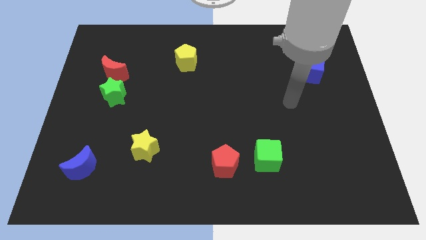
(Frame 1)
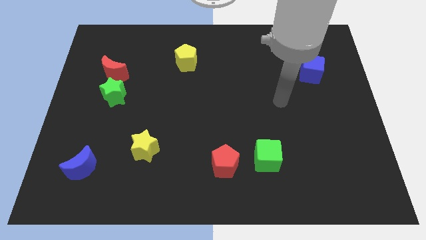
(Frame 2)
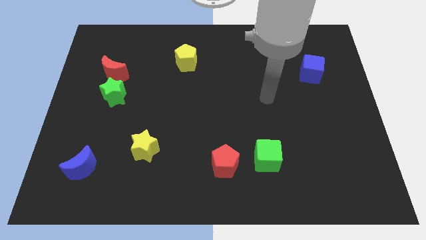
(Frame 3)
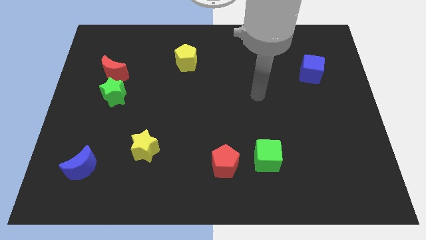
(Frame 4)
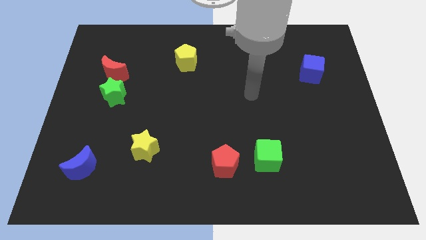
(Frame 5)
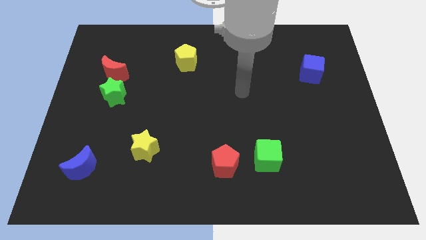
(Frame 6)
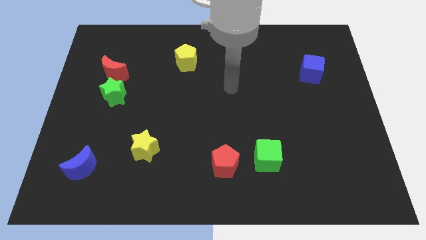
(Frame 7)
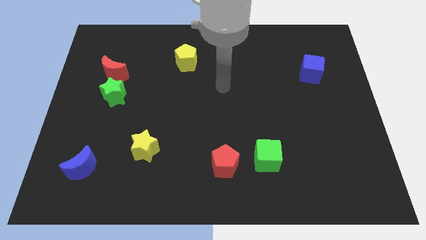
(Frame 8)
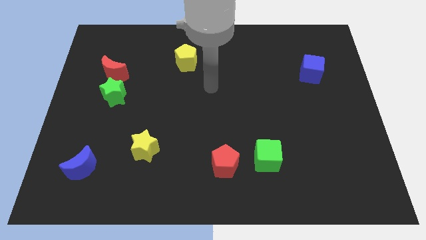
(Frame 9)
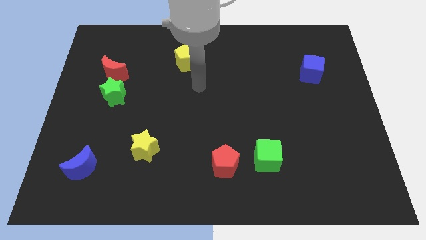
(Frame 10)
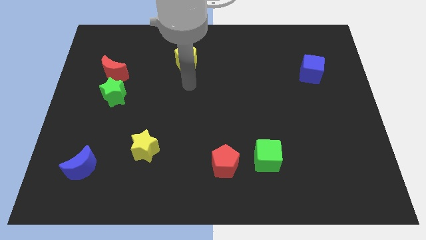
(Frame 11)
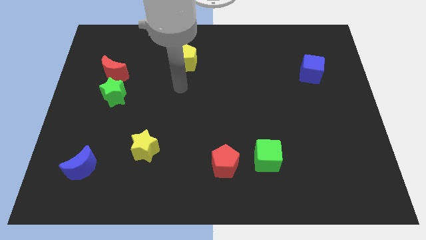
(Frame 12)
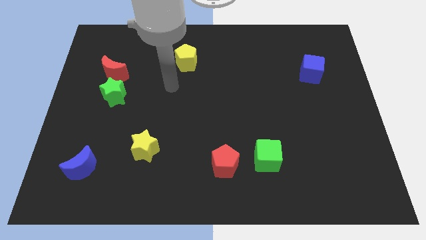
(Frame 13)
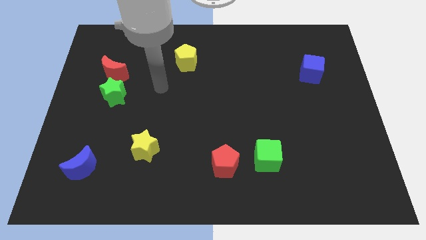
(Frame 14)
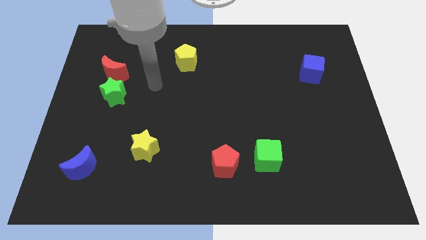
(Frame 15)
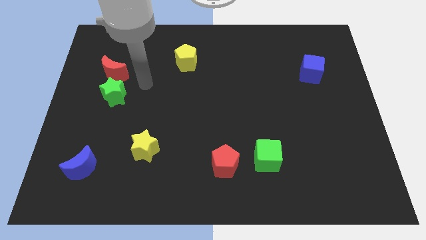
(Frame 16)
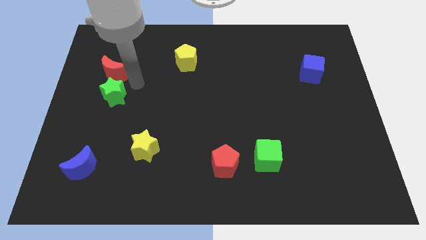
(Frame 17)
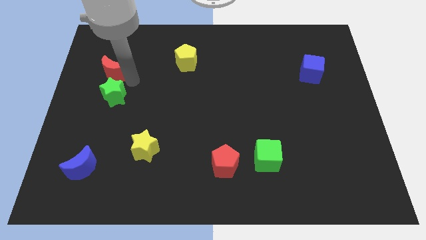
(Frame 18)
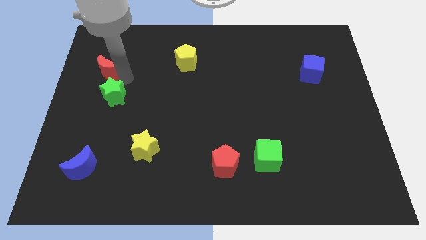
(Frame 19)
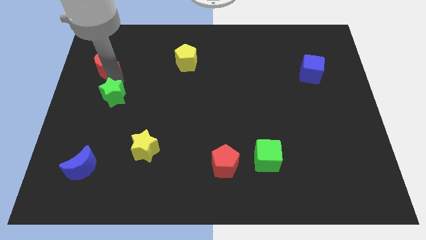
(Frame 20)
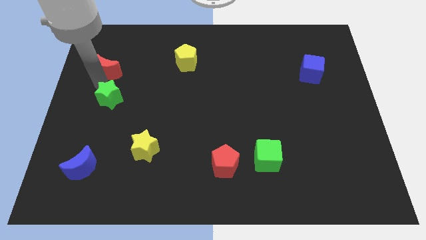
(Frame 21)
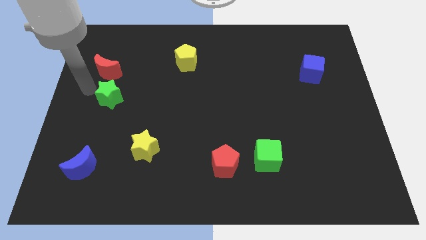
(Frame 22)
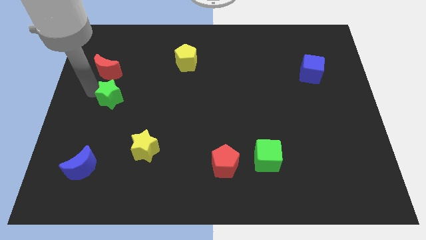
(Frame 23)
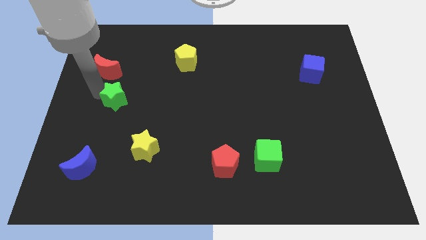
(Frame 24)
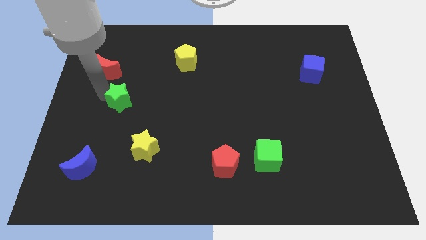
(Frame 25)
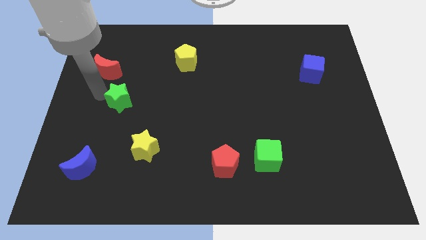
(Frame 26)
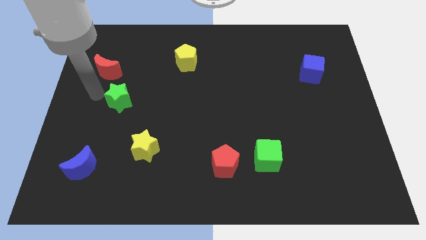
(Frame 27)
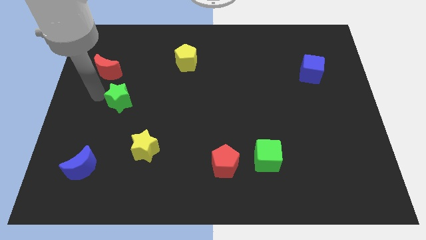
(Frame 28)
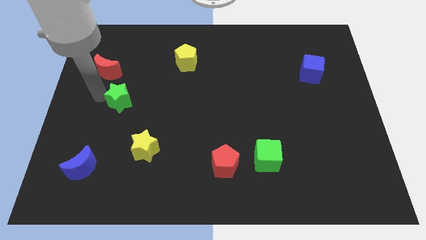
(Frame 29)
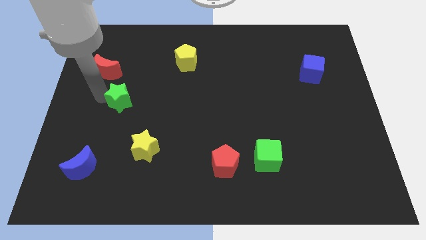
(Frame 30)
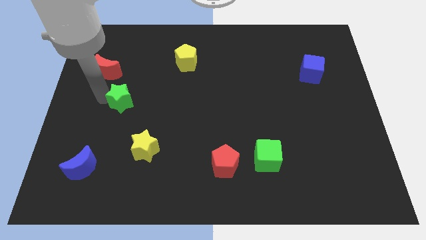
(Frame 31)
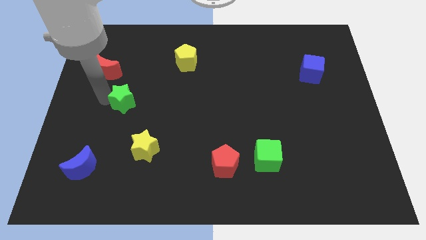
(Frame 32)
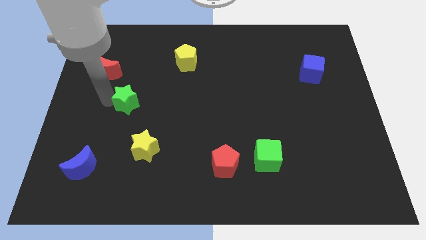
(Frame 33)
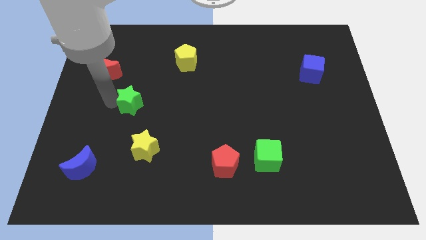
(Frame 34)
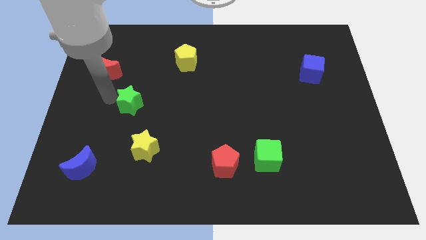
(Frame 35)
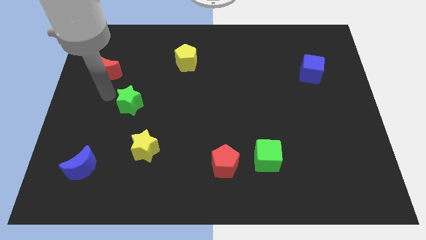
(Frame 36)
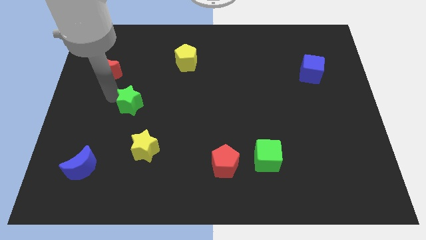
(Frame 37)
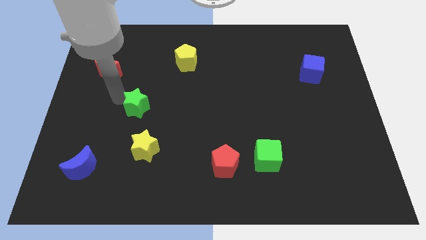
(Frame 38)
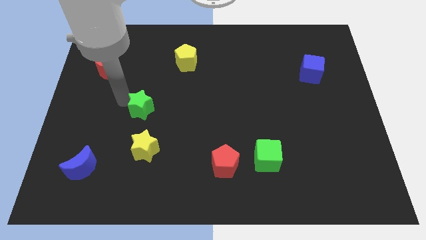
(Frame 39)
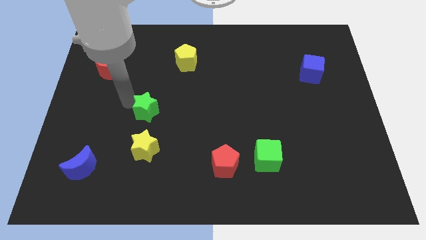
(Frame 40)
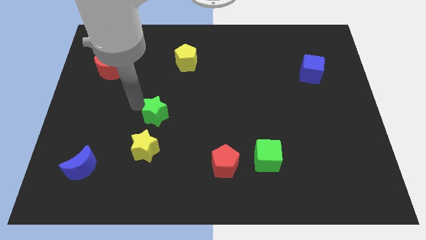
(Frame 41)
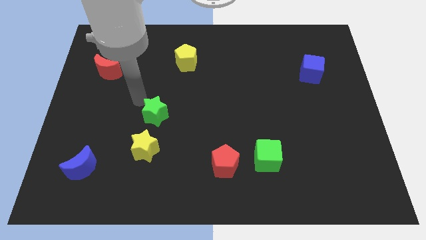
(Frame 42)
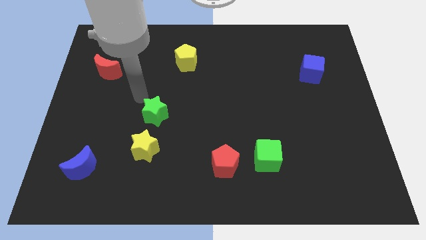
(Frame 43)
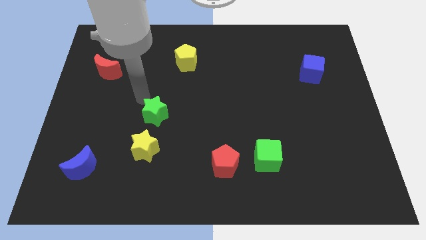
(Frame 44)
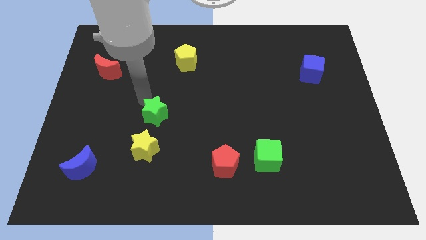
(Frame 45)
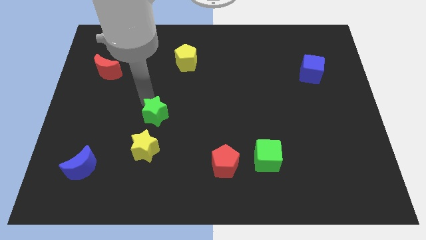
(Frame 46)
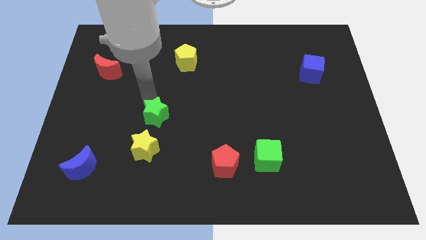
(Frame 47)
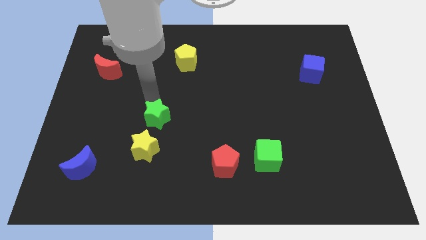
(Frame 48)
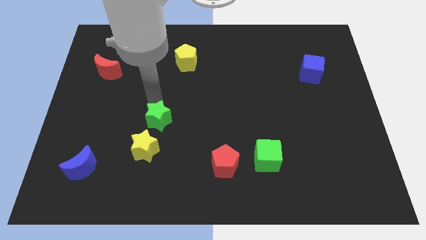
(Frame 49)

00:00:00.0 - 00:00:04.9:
push the green star to the top right side of the yellow star

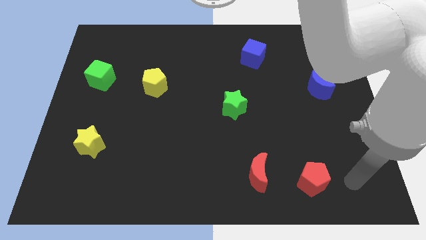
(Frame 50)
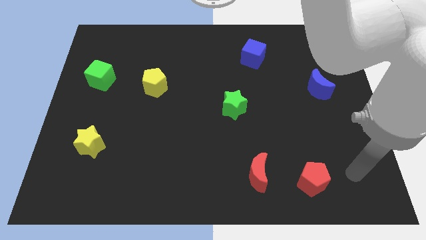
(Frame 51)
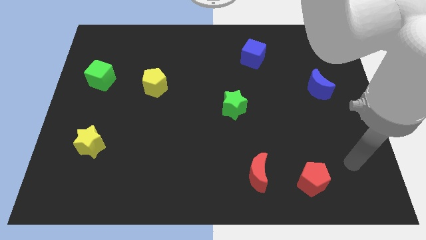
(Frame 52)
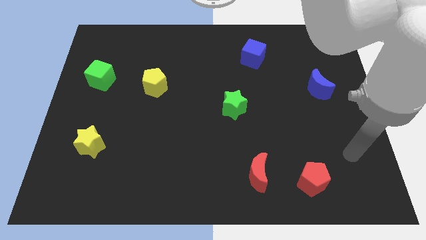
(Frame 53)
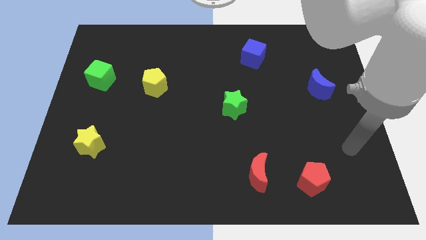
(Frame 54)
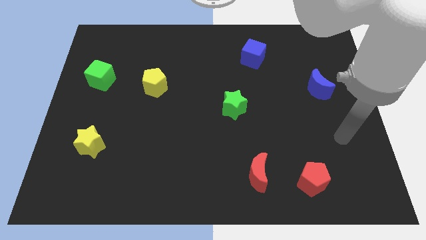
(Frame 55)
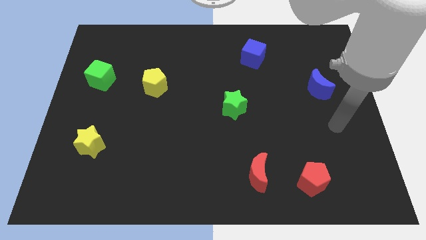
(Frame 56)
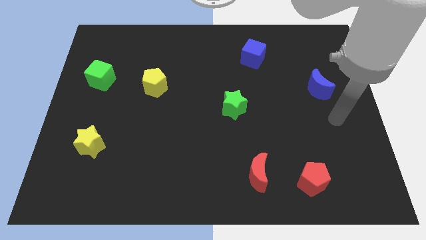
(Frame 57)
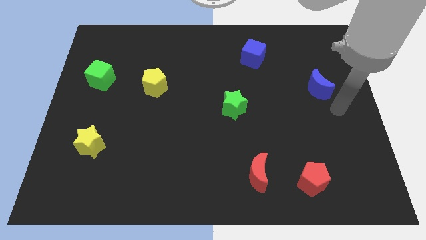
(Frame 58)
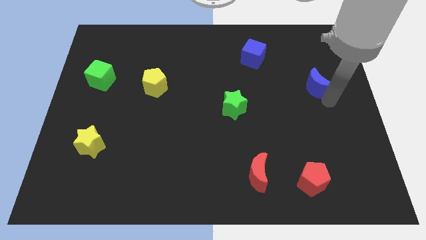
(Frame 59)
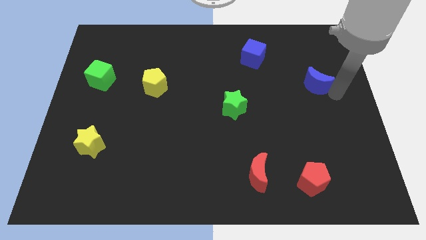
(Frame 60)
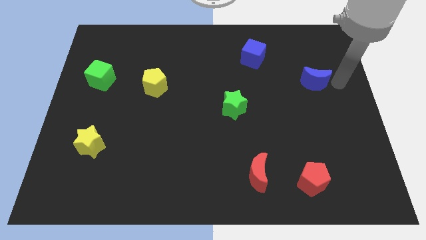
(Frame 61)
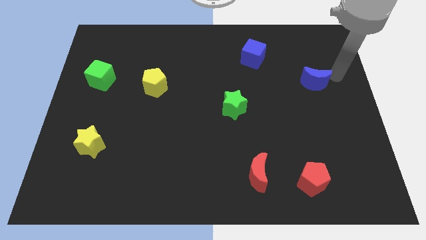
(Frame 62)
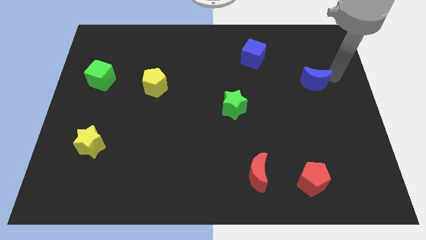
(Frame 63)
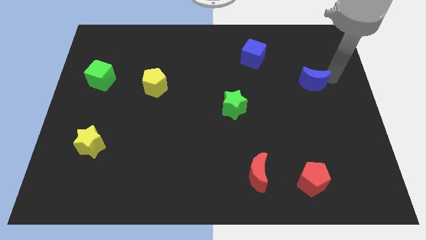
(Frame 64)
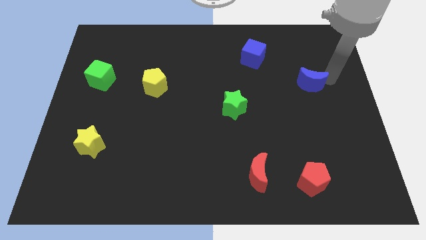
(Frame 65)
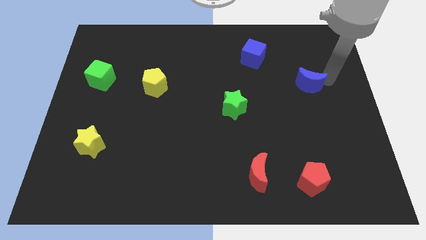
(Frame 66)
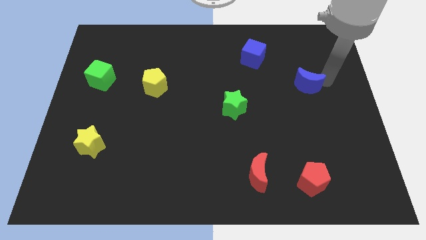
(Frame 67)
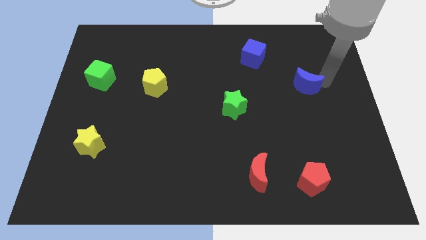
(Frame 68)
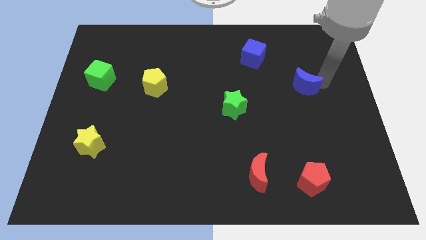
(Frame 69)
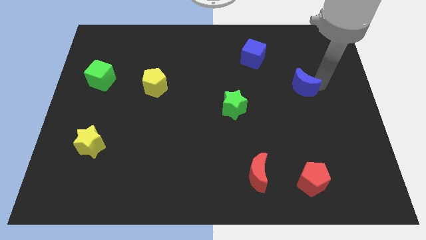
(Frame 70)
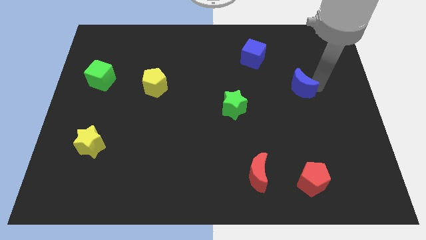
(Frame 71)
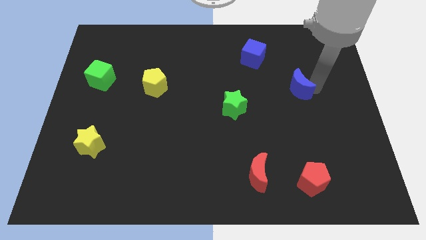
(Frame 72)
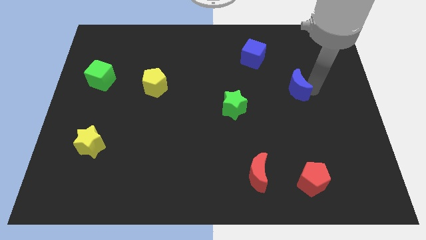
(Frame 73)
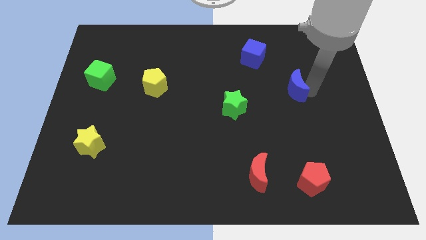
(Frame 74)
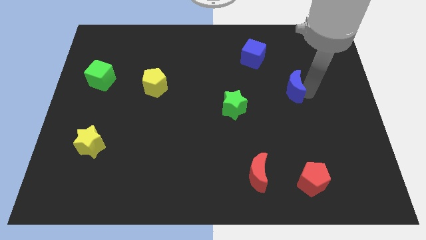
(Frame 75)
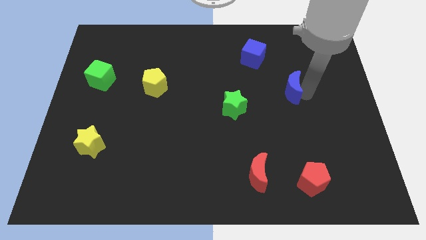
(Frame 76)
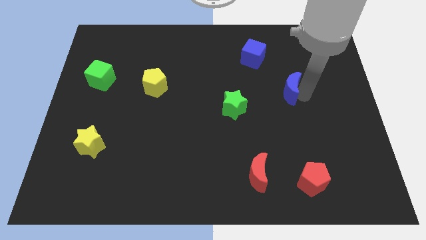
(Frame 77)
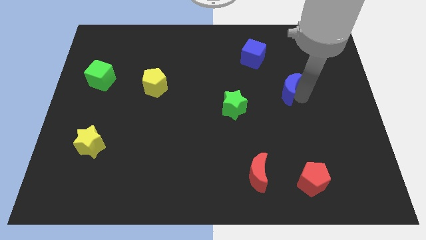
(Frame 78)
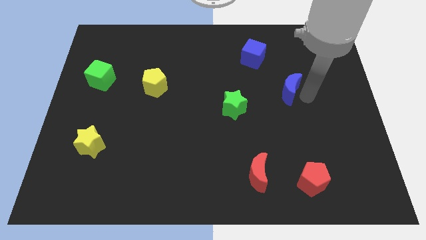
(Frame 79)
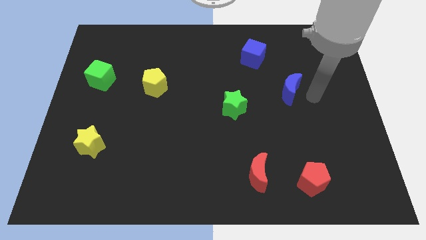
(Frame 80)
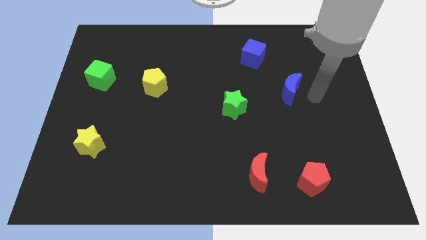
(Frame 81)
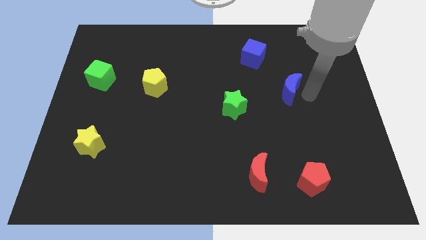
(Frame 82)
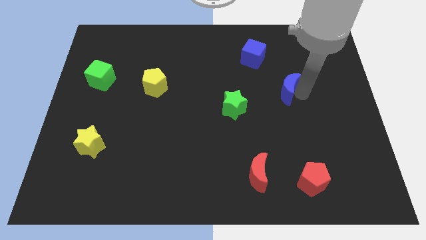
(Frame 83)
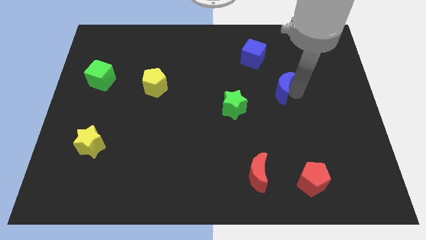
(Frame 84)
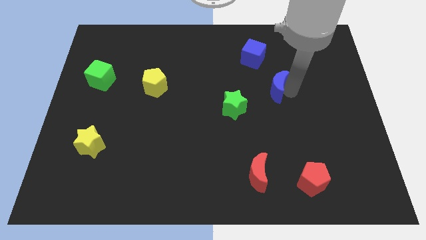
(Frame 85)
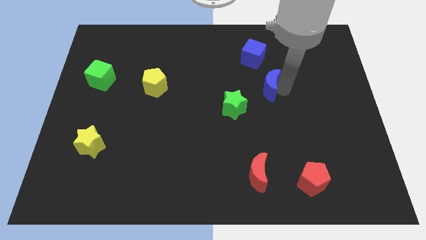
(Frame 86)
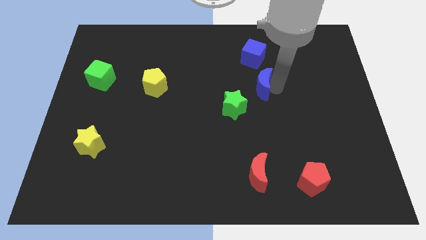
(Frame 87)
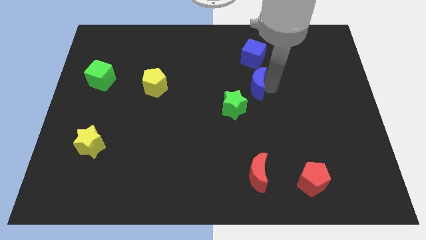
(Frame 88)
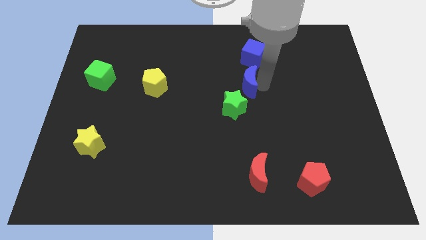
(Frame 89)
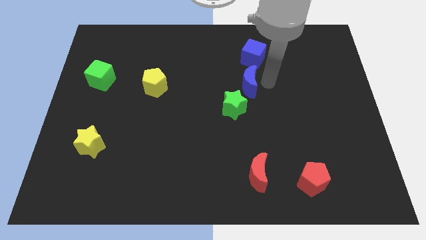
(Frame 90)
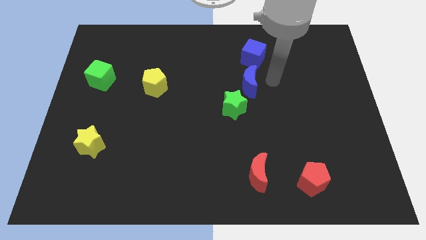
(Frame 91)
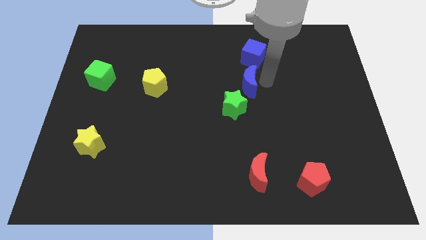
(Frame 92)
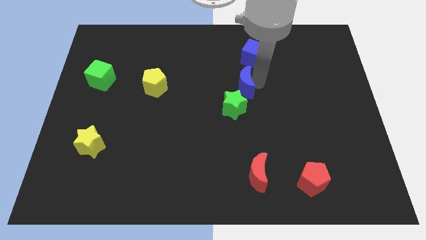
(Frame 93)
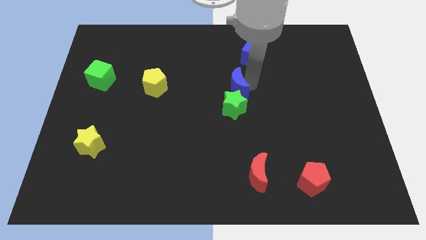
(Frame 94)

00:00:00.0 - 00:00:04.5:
push the blue moon to the top left side of the green star
